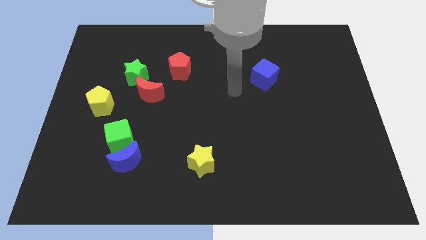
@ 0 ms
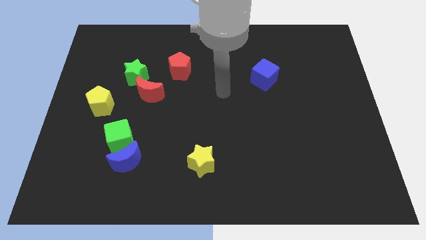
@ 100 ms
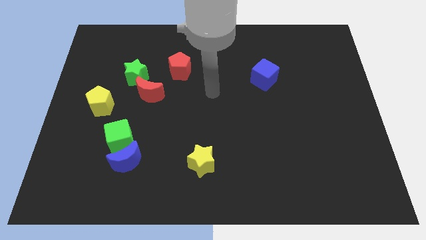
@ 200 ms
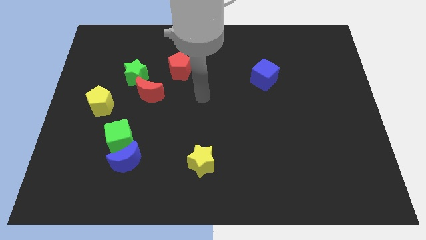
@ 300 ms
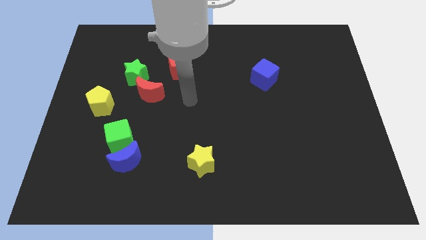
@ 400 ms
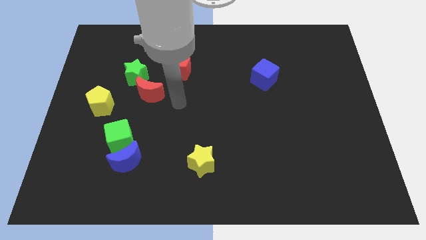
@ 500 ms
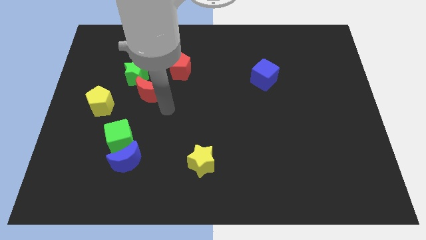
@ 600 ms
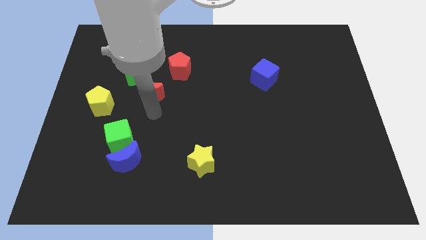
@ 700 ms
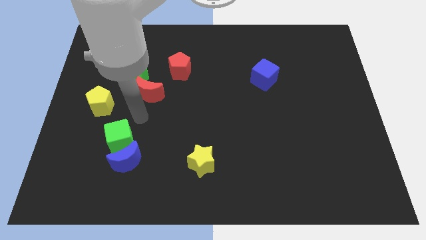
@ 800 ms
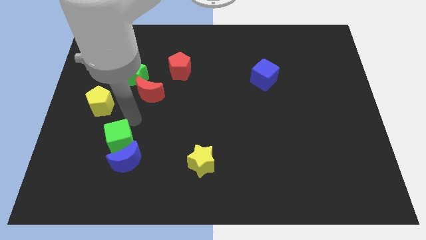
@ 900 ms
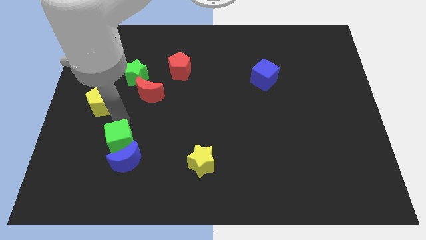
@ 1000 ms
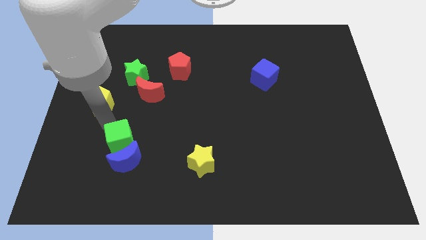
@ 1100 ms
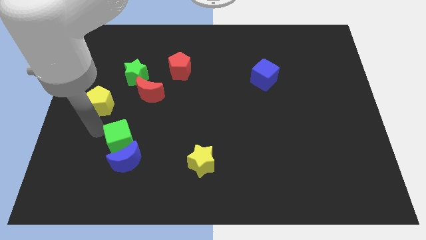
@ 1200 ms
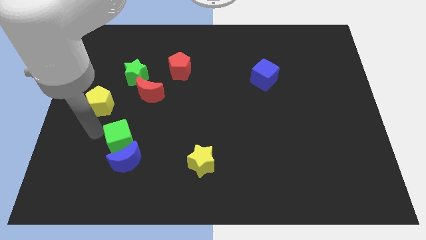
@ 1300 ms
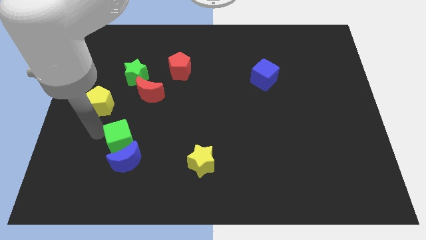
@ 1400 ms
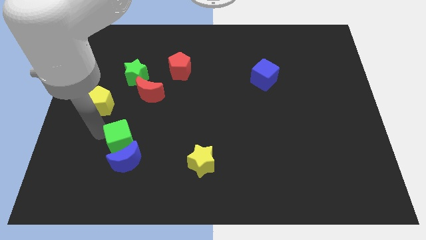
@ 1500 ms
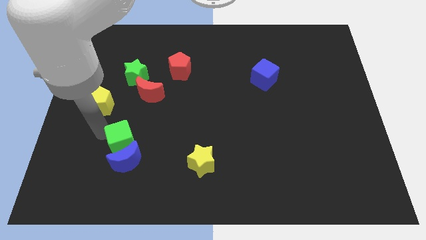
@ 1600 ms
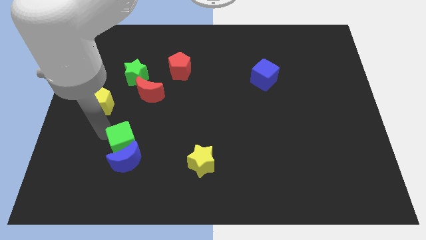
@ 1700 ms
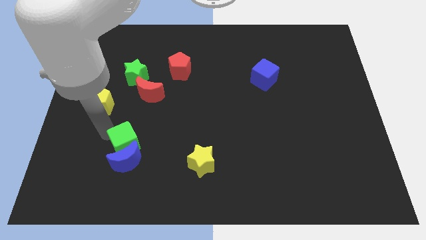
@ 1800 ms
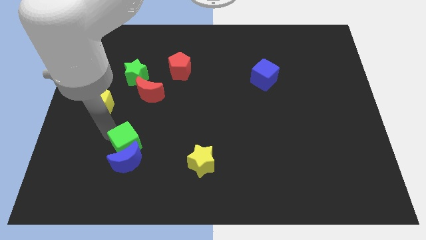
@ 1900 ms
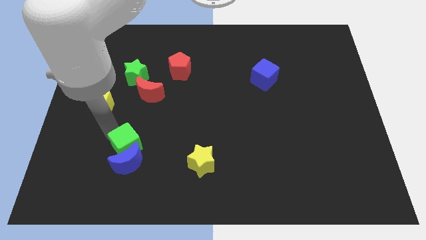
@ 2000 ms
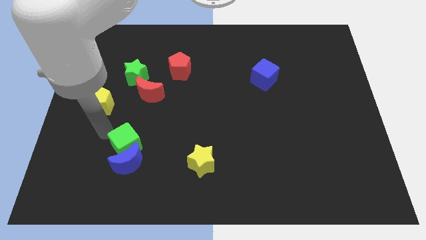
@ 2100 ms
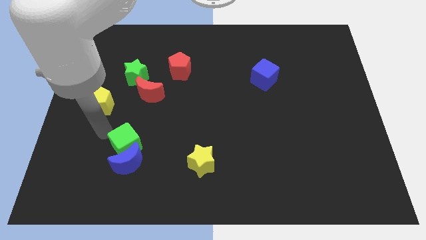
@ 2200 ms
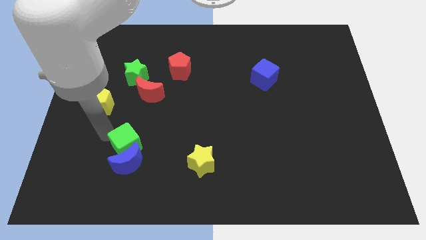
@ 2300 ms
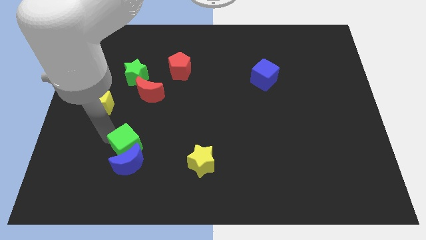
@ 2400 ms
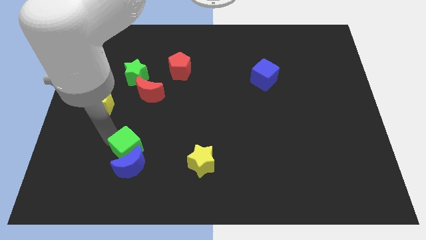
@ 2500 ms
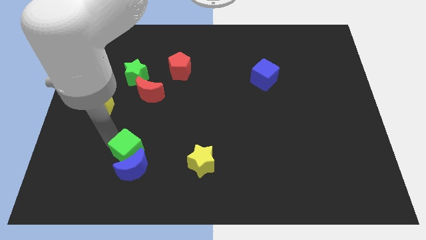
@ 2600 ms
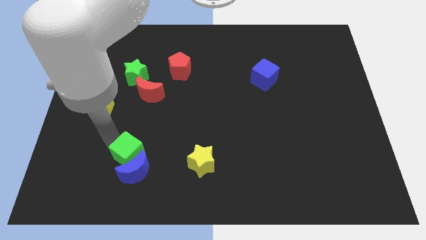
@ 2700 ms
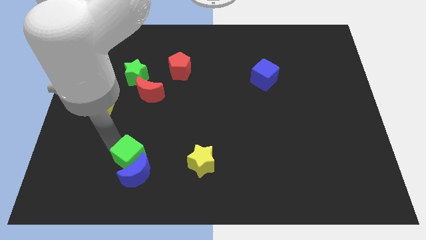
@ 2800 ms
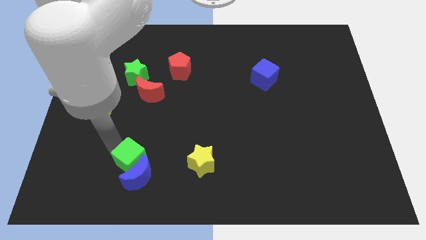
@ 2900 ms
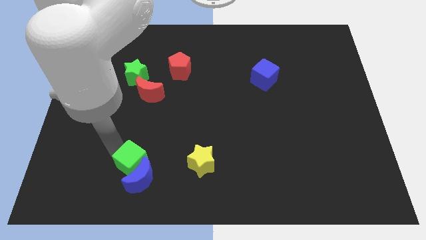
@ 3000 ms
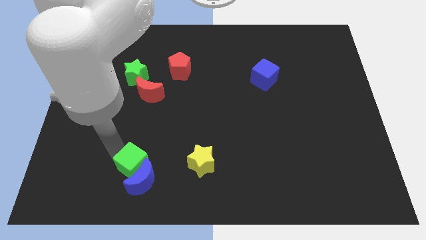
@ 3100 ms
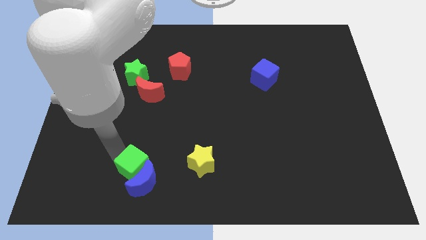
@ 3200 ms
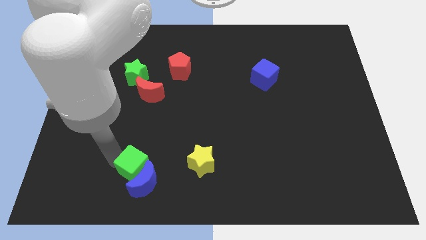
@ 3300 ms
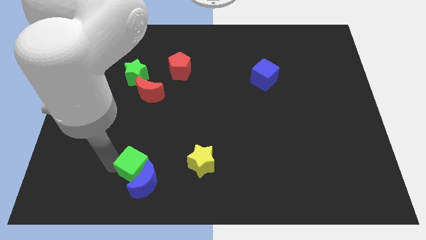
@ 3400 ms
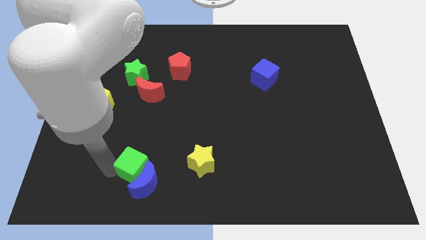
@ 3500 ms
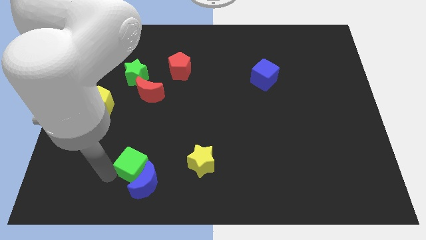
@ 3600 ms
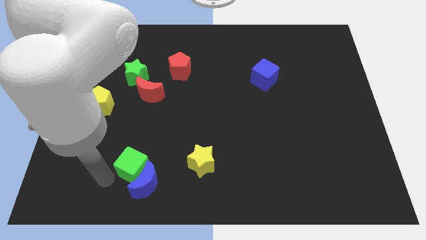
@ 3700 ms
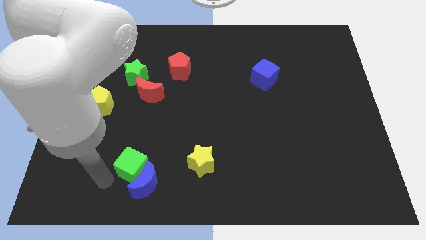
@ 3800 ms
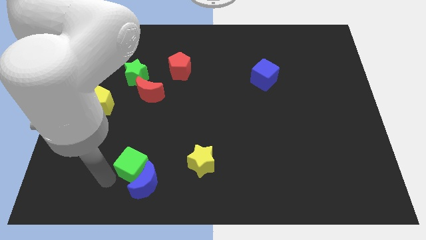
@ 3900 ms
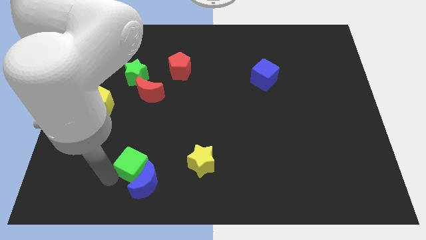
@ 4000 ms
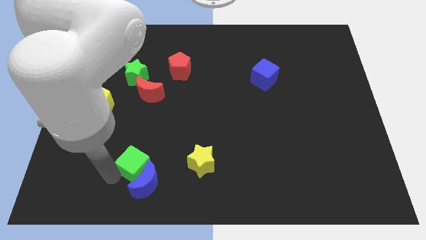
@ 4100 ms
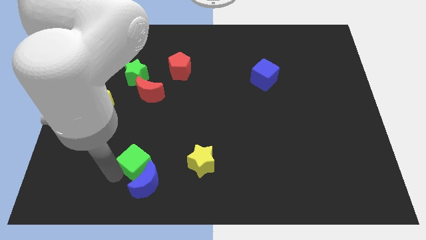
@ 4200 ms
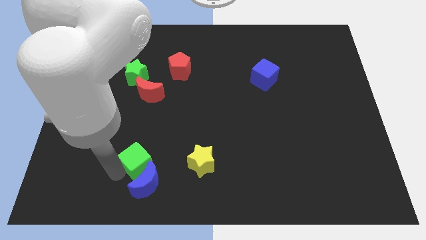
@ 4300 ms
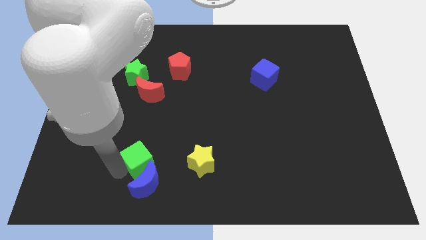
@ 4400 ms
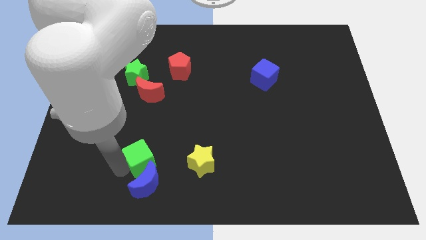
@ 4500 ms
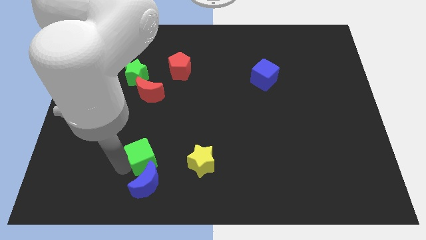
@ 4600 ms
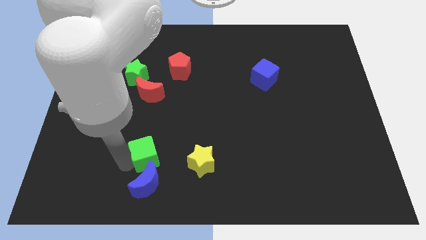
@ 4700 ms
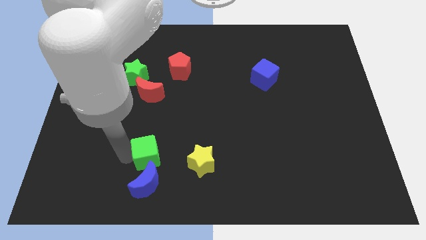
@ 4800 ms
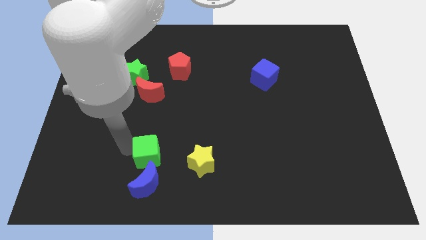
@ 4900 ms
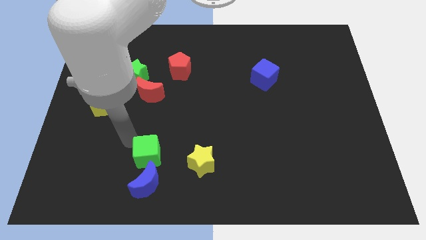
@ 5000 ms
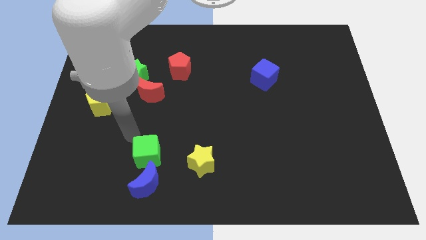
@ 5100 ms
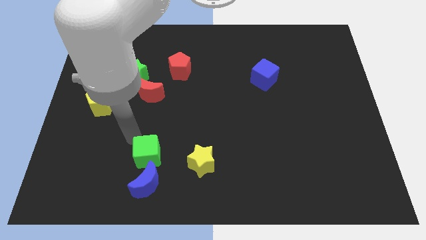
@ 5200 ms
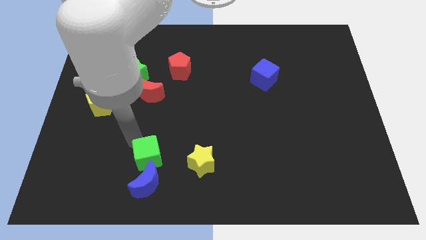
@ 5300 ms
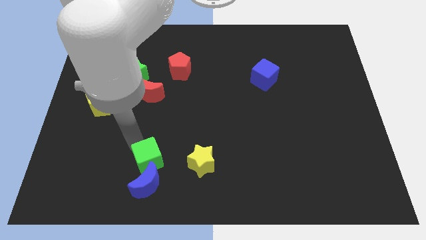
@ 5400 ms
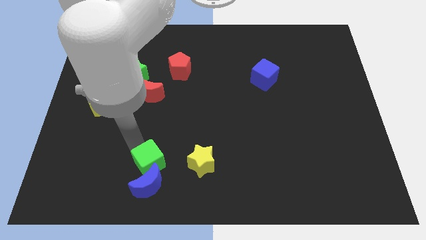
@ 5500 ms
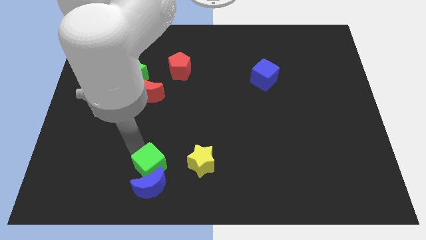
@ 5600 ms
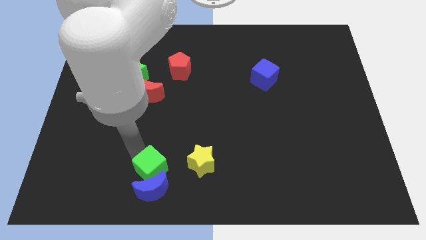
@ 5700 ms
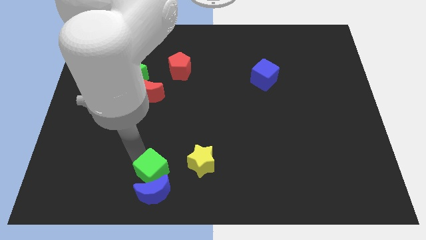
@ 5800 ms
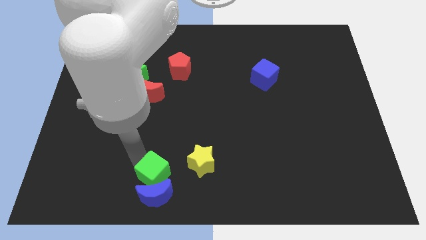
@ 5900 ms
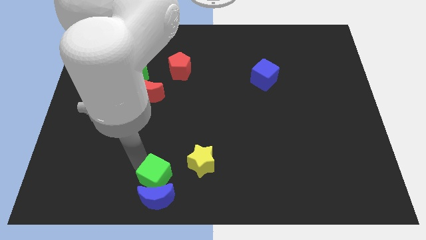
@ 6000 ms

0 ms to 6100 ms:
put the green cube diagonally down and to the left of the yellow star

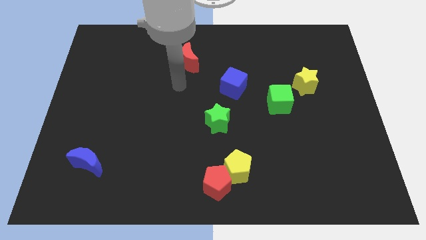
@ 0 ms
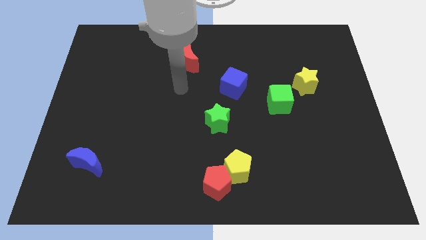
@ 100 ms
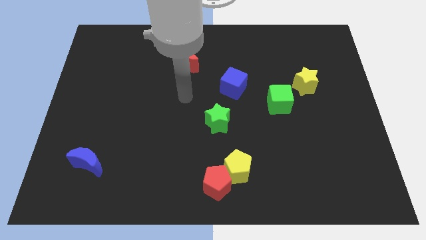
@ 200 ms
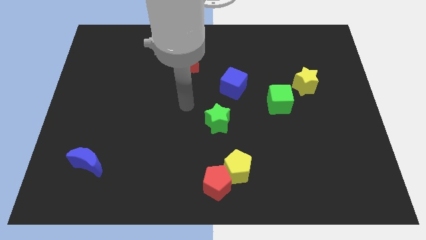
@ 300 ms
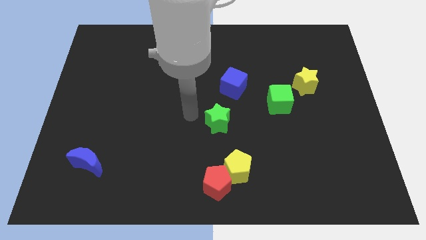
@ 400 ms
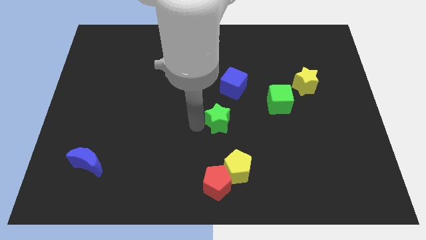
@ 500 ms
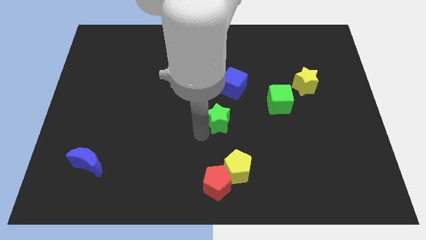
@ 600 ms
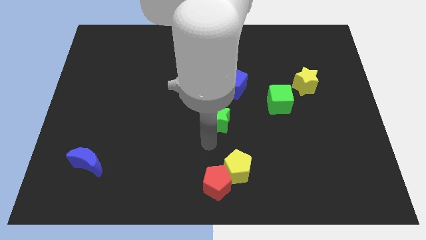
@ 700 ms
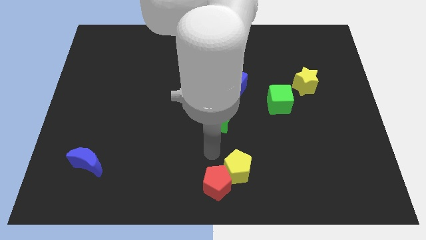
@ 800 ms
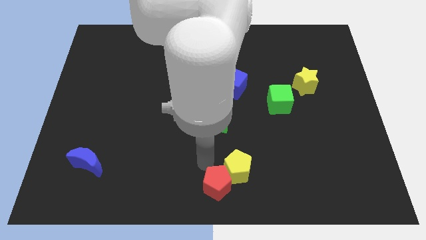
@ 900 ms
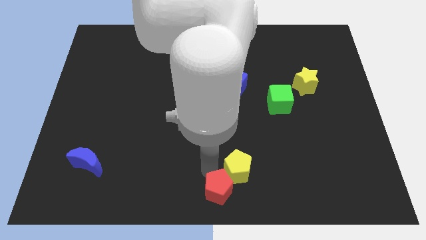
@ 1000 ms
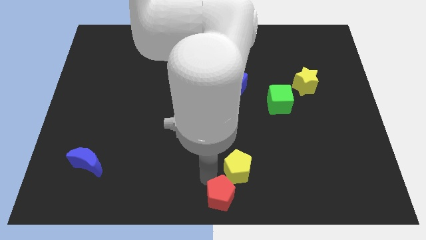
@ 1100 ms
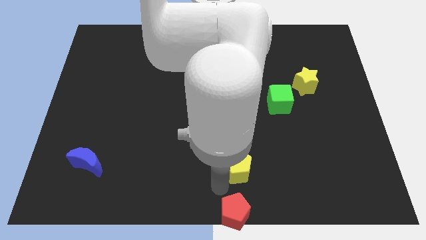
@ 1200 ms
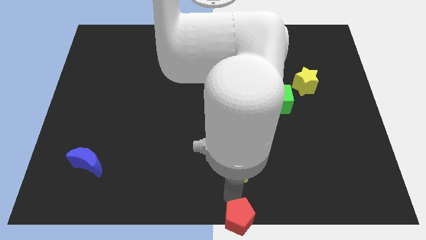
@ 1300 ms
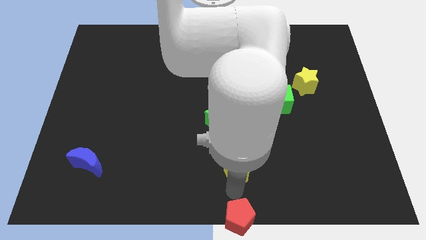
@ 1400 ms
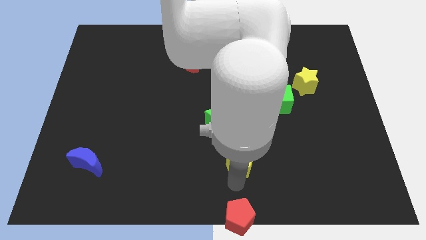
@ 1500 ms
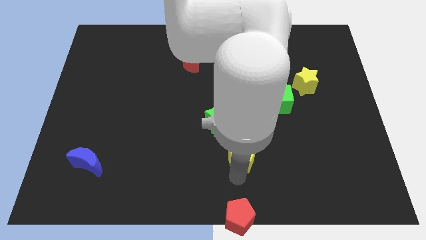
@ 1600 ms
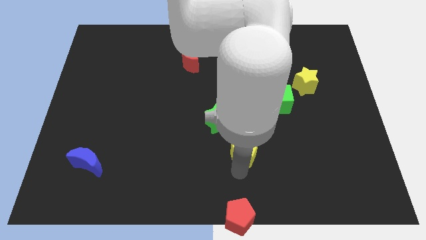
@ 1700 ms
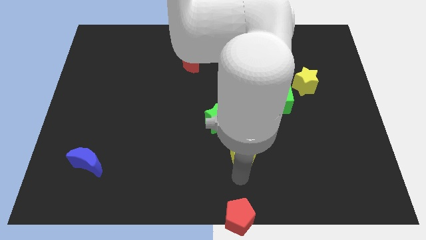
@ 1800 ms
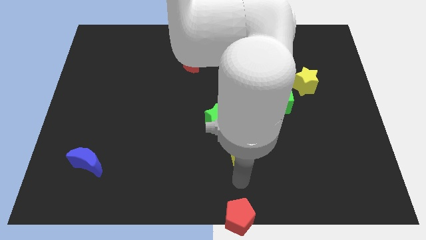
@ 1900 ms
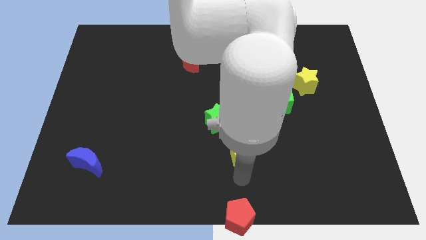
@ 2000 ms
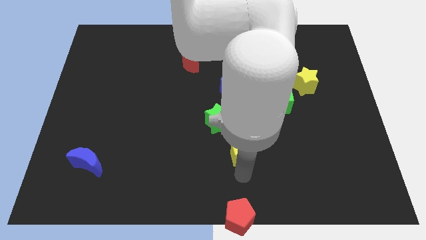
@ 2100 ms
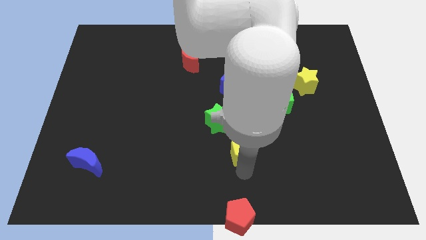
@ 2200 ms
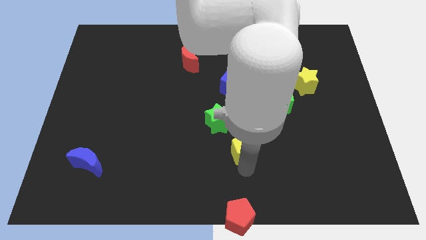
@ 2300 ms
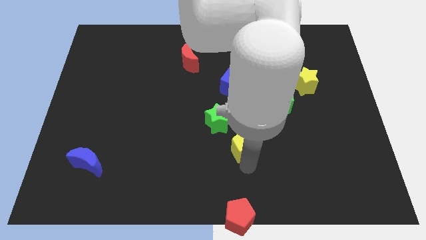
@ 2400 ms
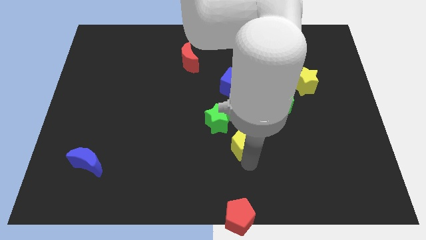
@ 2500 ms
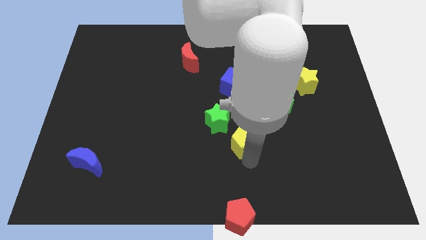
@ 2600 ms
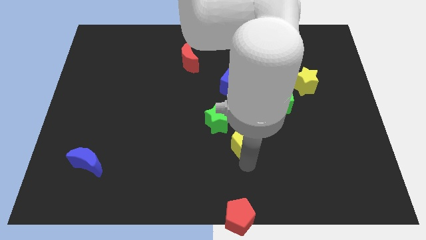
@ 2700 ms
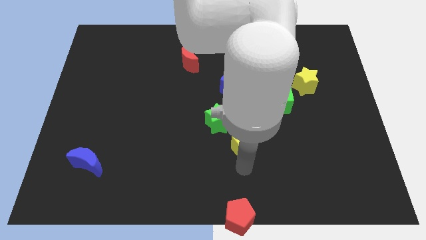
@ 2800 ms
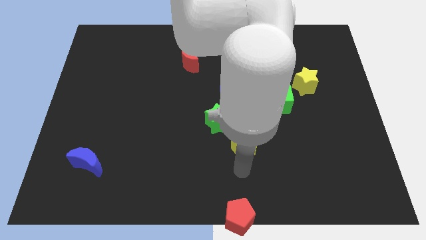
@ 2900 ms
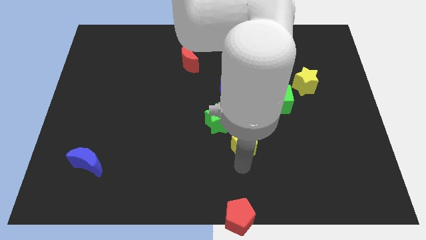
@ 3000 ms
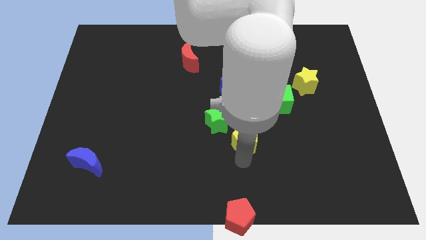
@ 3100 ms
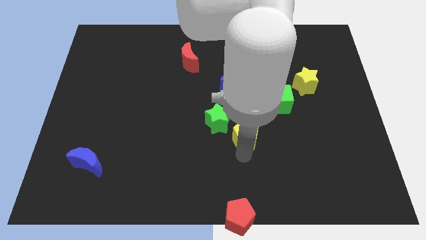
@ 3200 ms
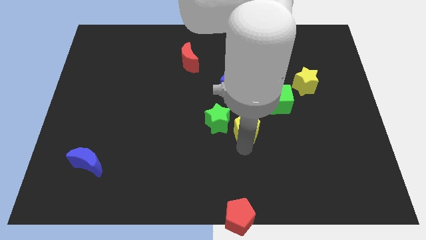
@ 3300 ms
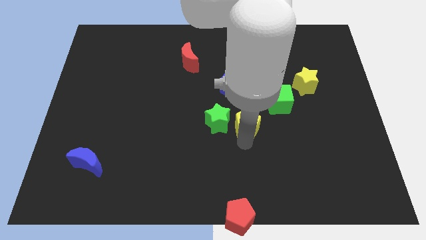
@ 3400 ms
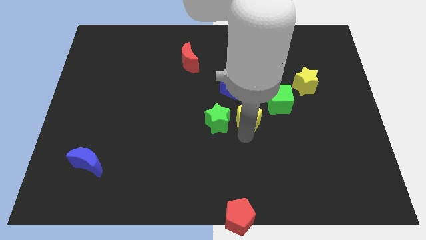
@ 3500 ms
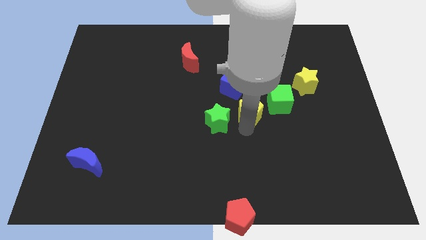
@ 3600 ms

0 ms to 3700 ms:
slide the yellow pentagon to the bottom right side of the blue cube
